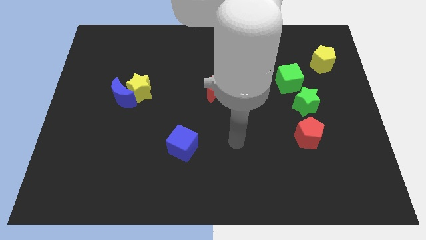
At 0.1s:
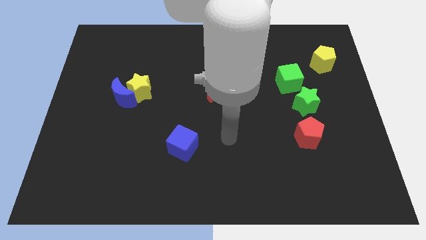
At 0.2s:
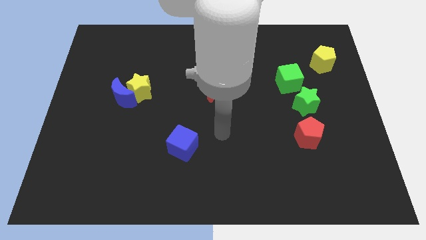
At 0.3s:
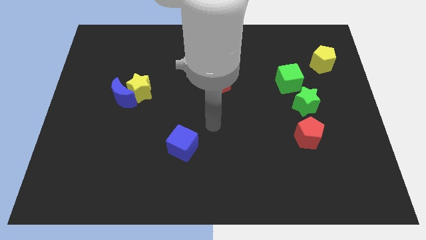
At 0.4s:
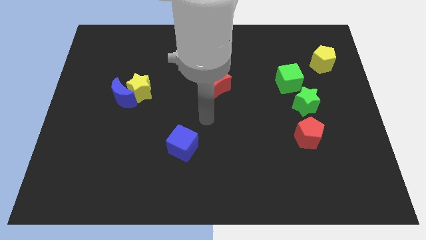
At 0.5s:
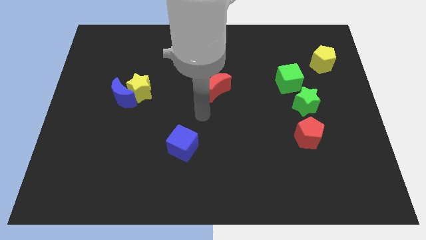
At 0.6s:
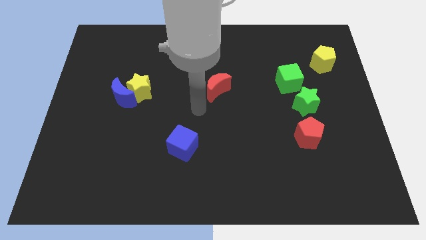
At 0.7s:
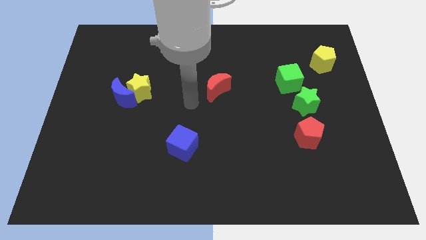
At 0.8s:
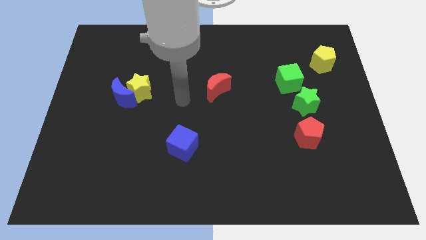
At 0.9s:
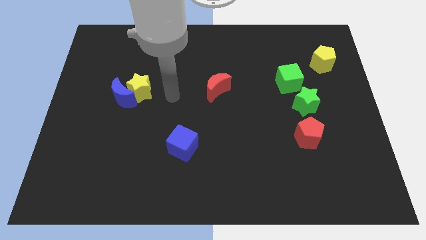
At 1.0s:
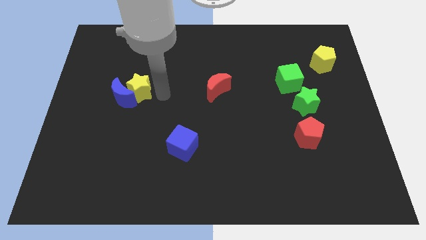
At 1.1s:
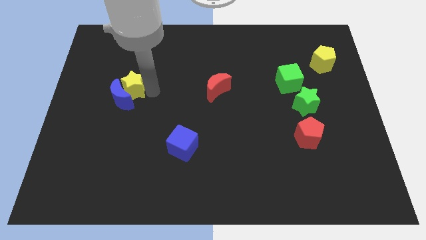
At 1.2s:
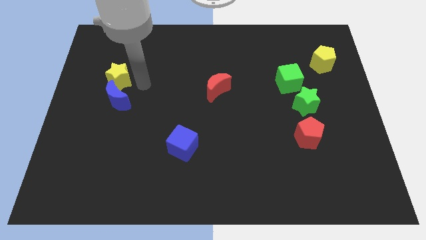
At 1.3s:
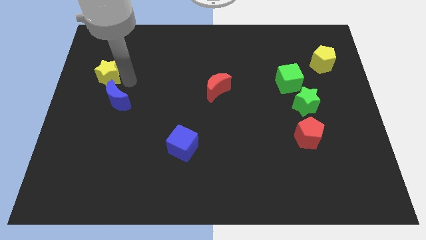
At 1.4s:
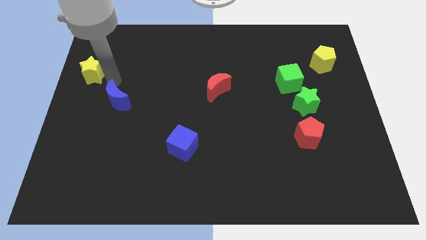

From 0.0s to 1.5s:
separate the blue moon from the yellow star

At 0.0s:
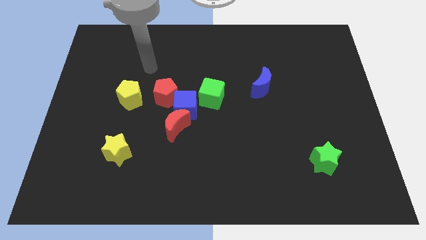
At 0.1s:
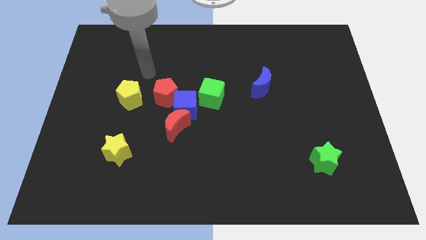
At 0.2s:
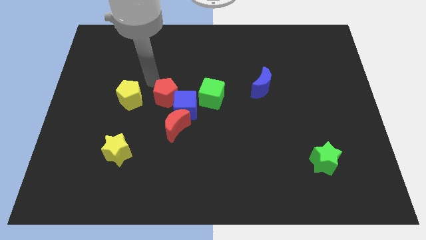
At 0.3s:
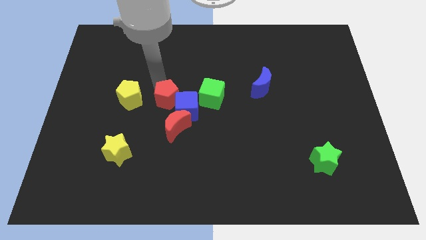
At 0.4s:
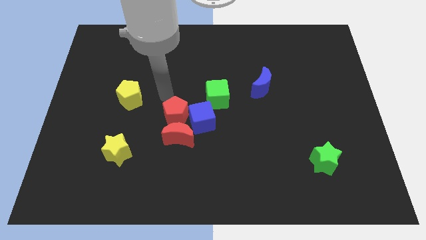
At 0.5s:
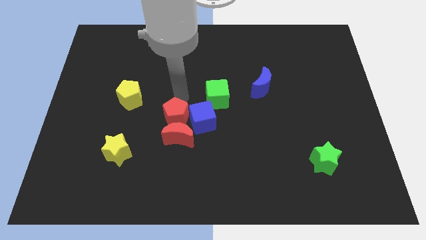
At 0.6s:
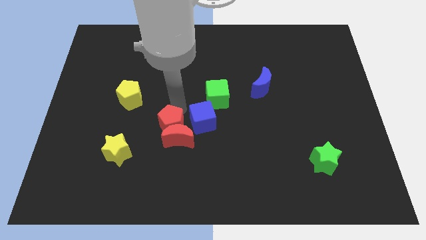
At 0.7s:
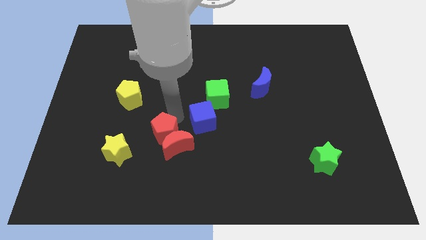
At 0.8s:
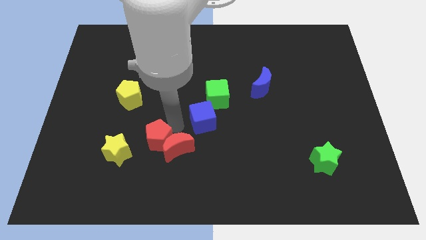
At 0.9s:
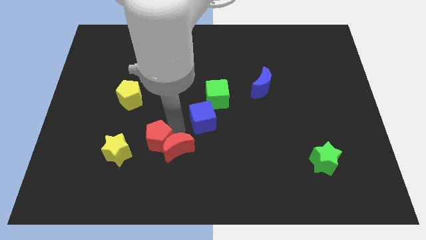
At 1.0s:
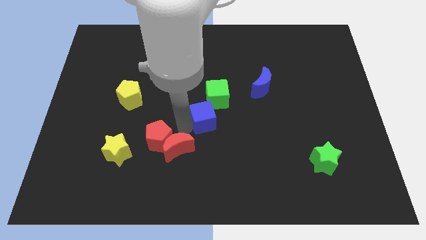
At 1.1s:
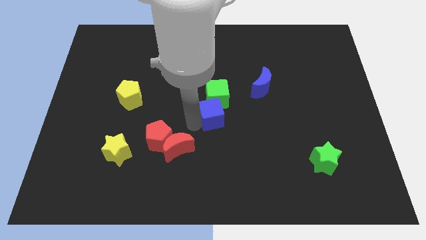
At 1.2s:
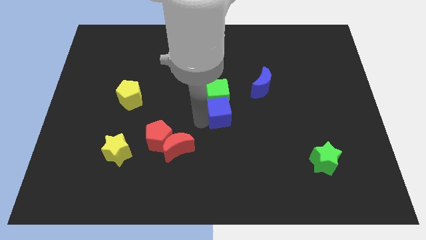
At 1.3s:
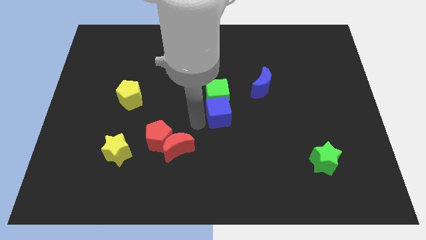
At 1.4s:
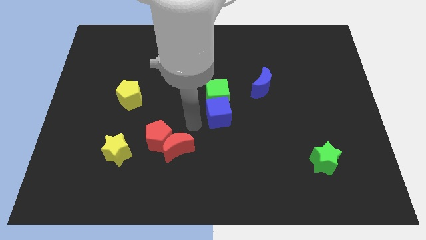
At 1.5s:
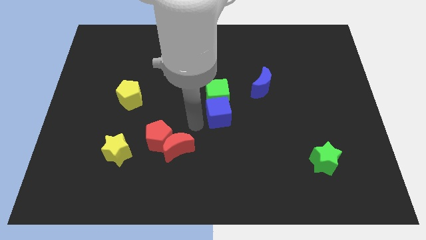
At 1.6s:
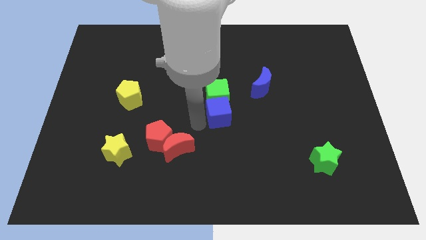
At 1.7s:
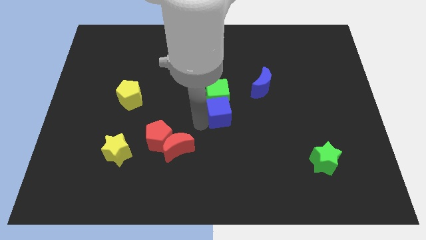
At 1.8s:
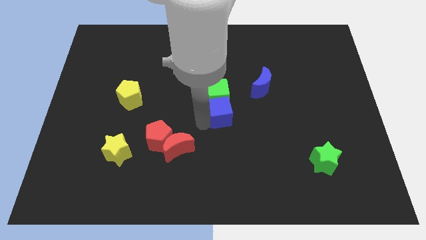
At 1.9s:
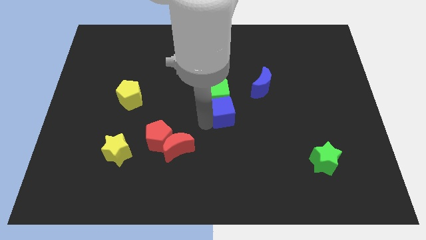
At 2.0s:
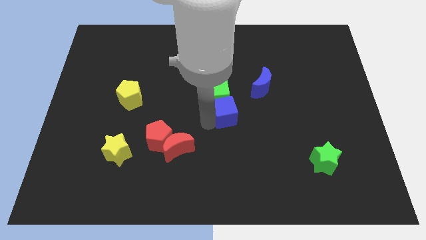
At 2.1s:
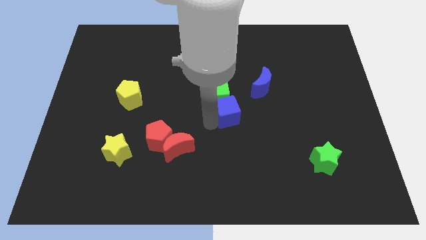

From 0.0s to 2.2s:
separate the blue cube from the clump

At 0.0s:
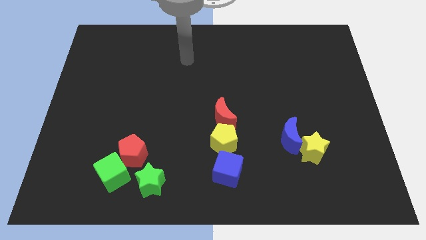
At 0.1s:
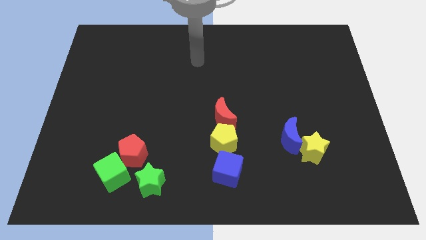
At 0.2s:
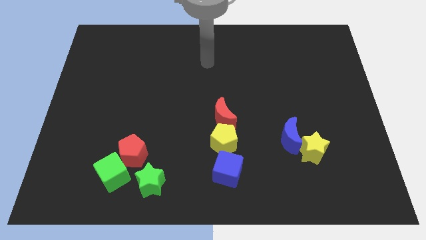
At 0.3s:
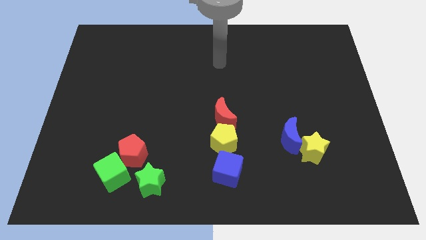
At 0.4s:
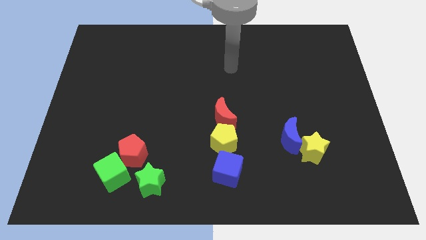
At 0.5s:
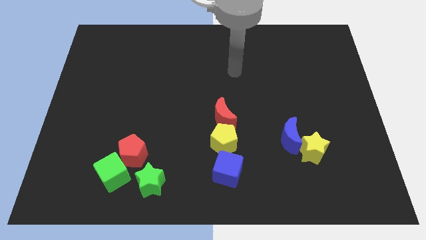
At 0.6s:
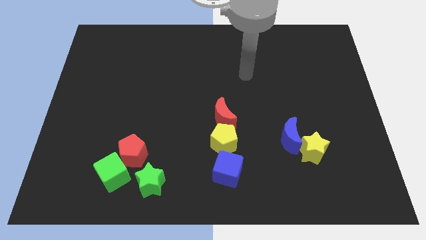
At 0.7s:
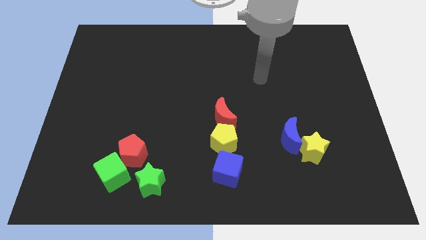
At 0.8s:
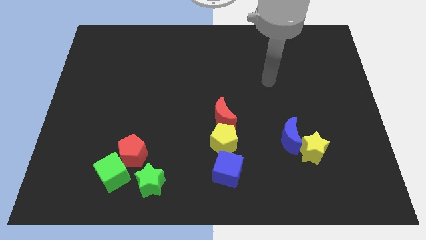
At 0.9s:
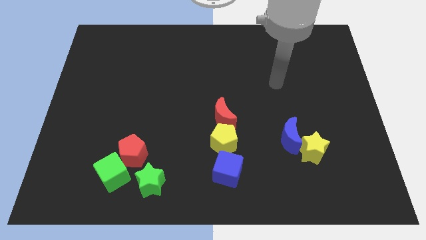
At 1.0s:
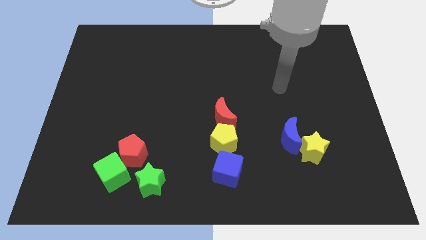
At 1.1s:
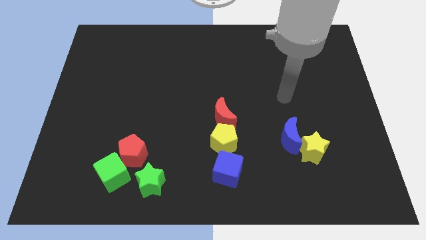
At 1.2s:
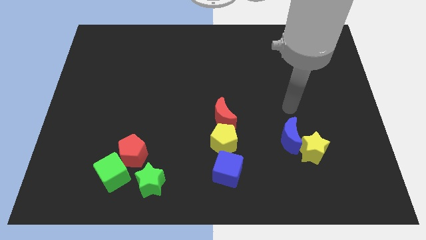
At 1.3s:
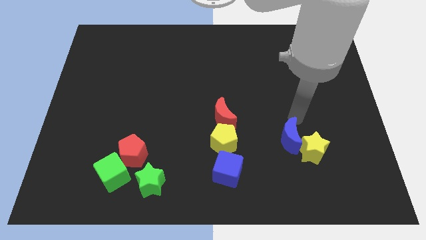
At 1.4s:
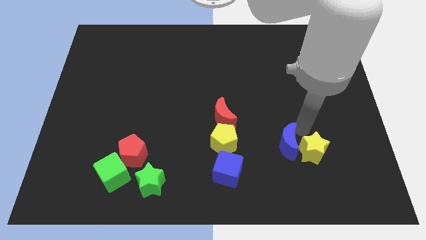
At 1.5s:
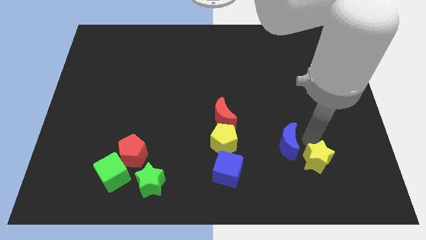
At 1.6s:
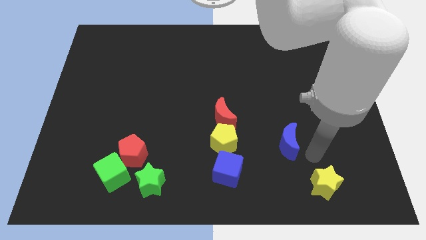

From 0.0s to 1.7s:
move the blue moon away from the yellow star

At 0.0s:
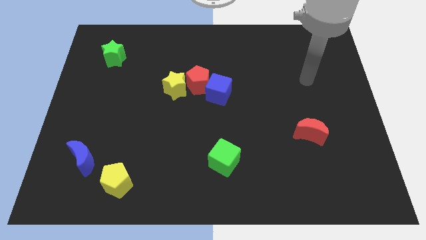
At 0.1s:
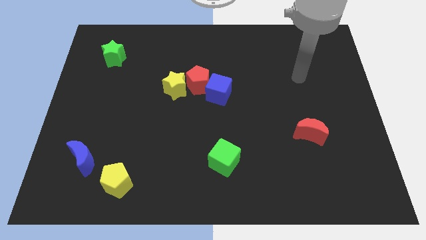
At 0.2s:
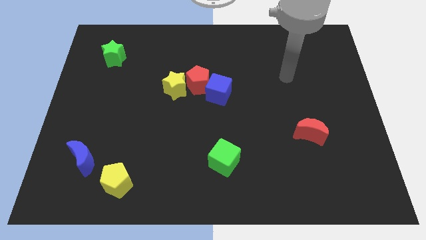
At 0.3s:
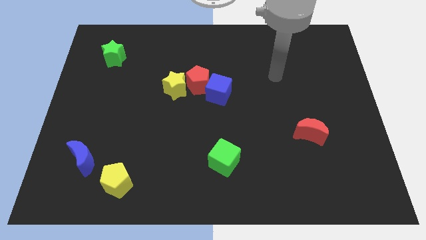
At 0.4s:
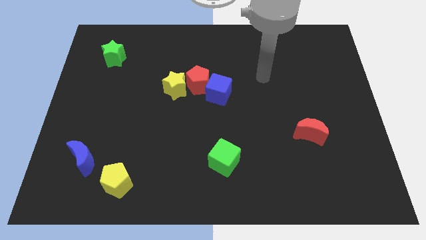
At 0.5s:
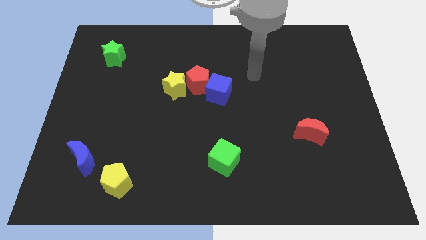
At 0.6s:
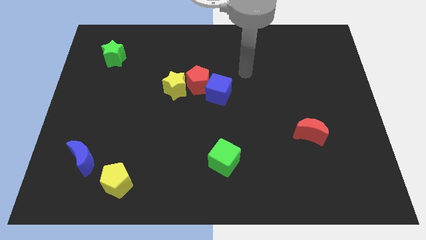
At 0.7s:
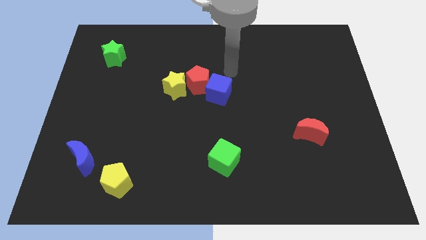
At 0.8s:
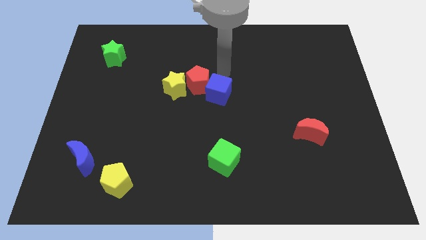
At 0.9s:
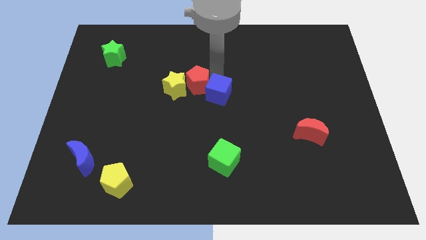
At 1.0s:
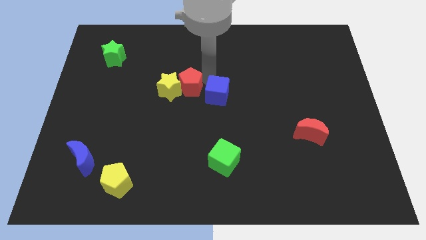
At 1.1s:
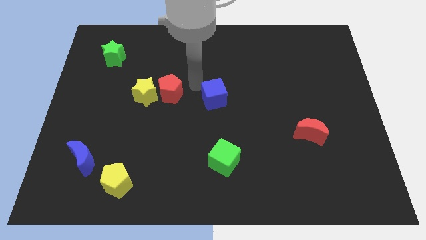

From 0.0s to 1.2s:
separate the blue cube from the red pentagon

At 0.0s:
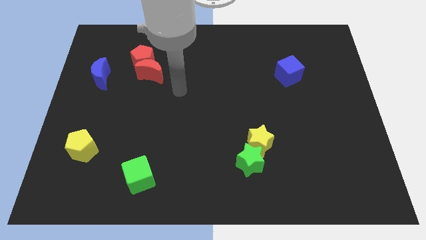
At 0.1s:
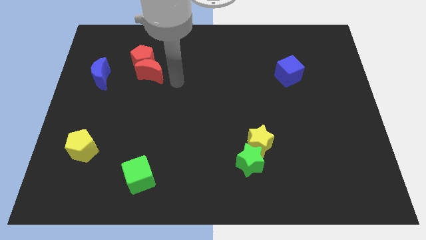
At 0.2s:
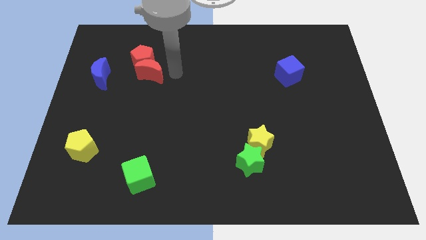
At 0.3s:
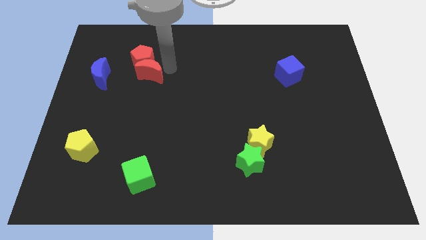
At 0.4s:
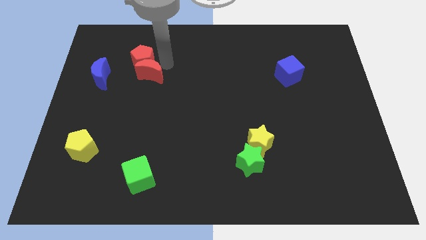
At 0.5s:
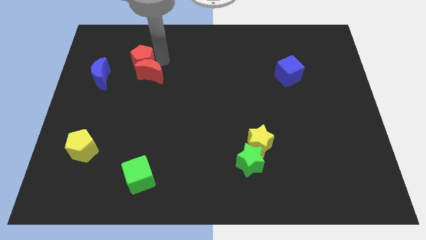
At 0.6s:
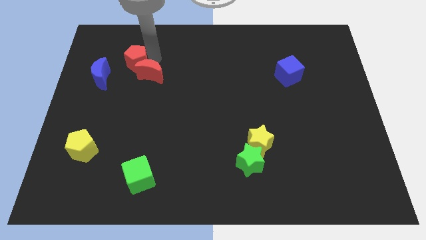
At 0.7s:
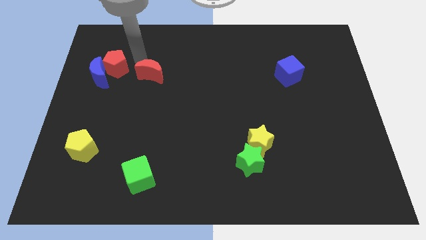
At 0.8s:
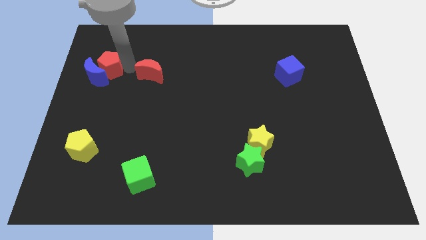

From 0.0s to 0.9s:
pull the red moon apart from the red pentagon

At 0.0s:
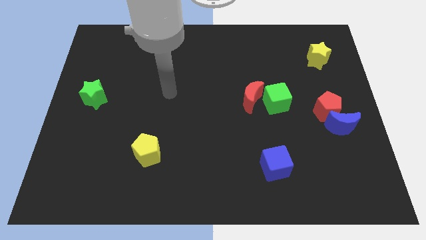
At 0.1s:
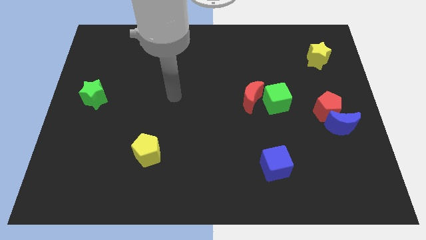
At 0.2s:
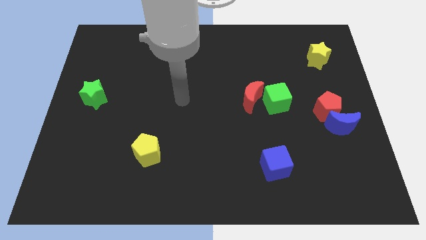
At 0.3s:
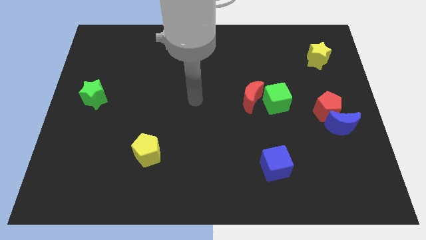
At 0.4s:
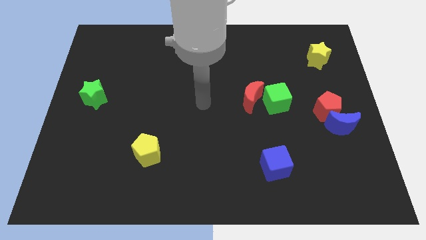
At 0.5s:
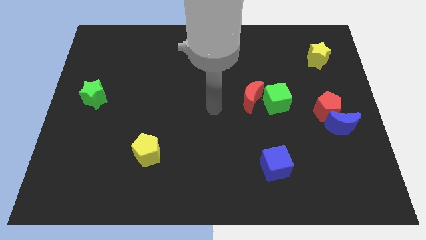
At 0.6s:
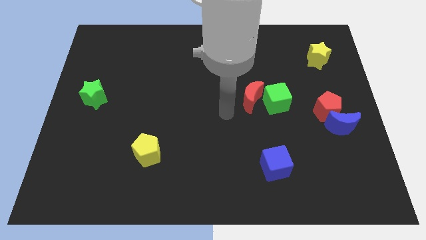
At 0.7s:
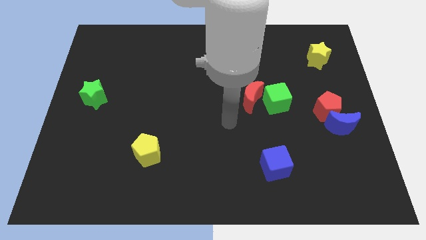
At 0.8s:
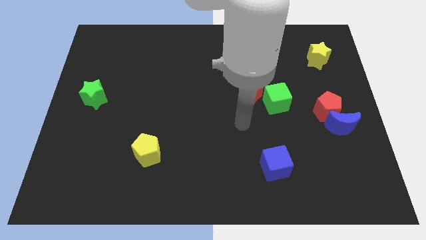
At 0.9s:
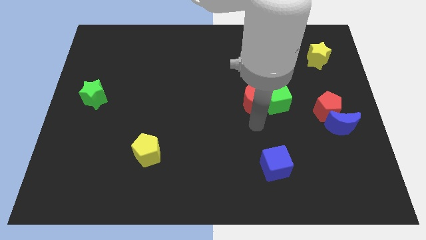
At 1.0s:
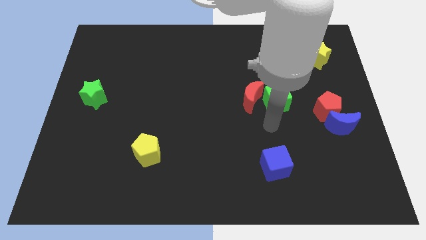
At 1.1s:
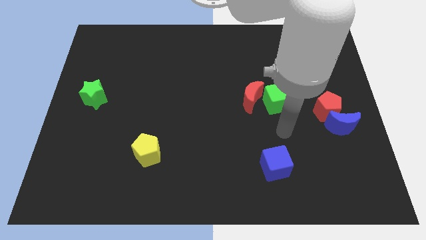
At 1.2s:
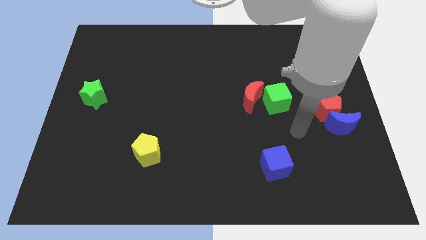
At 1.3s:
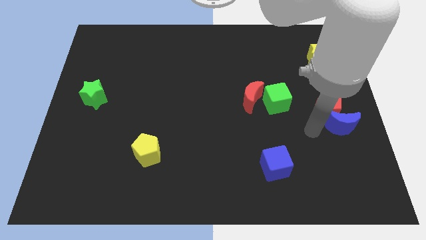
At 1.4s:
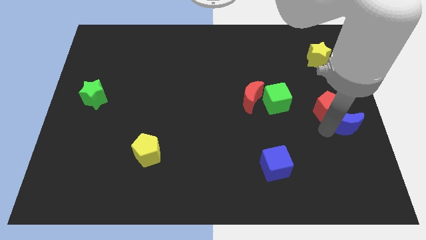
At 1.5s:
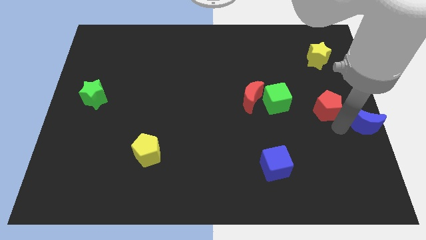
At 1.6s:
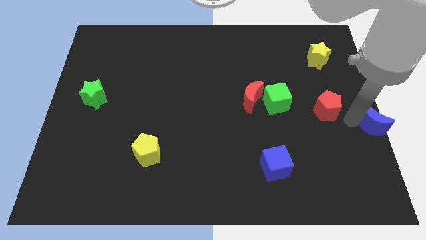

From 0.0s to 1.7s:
separate the red pentagon from the blue moon

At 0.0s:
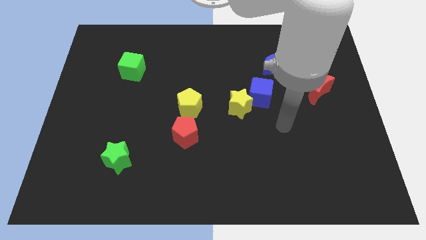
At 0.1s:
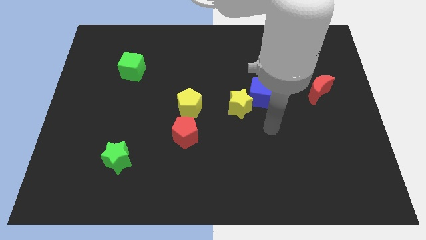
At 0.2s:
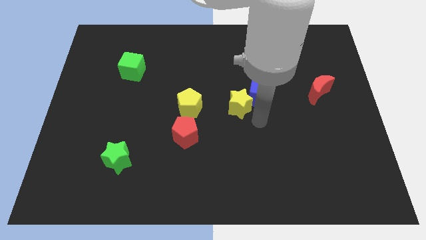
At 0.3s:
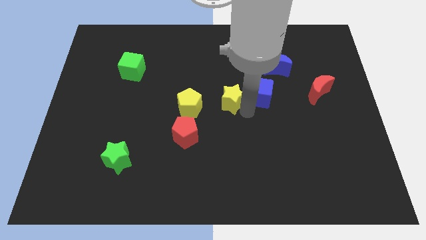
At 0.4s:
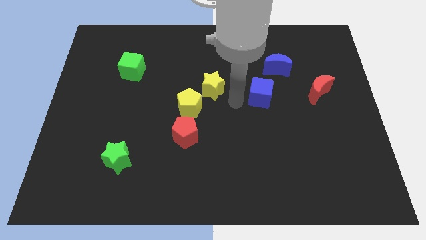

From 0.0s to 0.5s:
separate the blue cube from the yellow star
